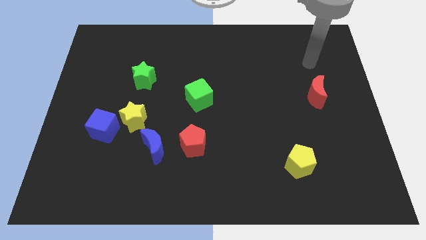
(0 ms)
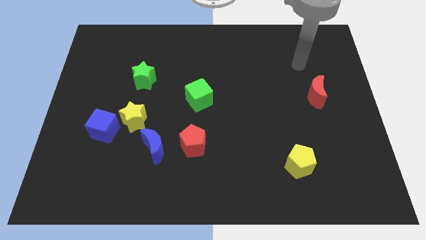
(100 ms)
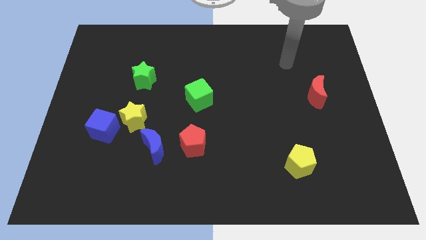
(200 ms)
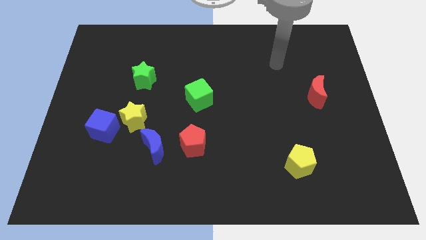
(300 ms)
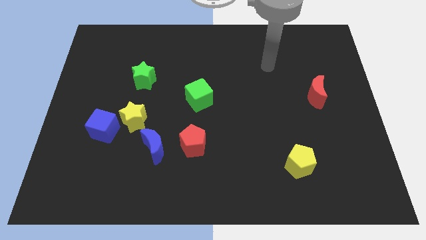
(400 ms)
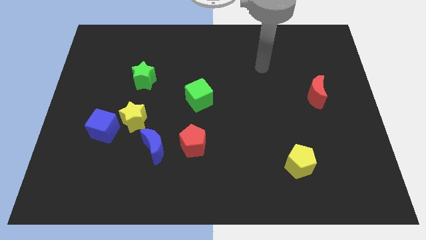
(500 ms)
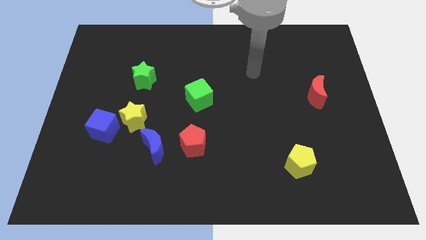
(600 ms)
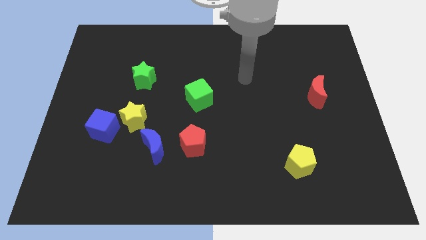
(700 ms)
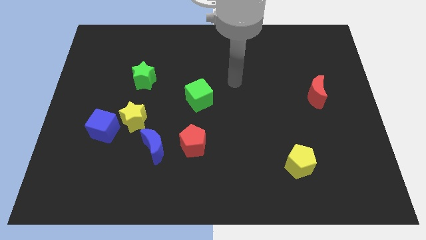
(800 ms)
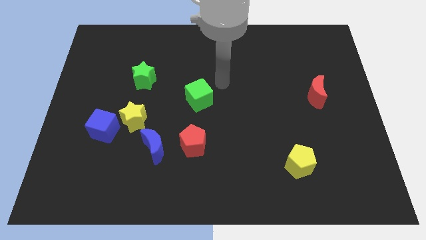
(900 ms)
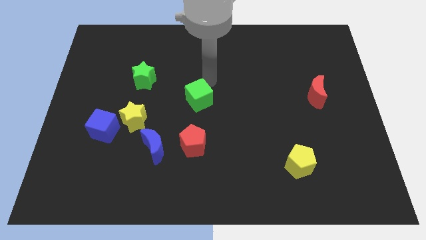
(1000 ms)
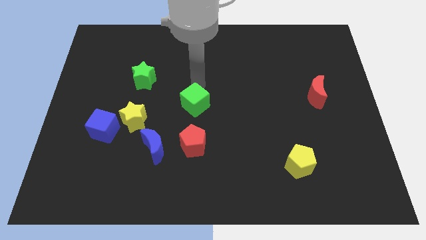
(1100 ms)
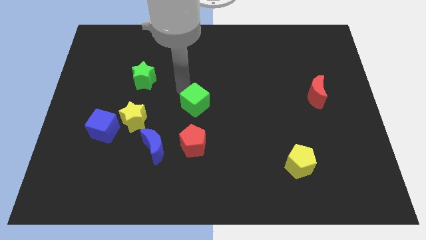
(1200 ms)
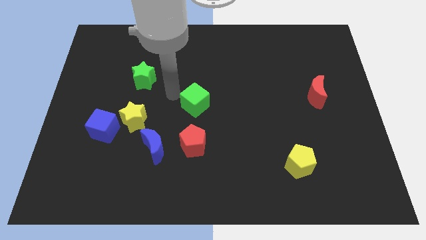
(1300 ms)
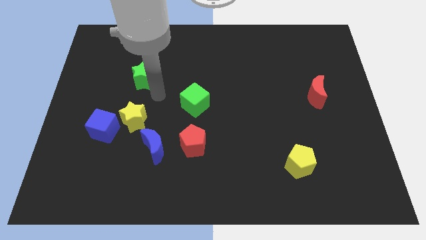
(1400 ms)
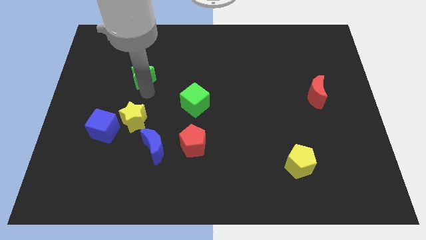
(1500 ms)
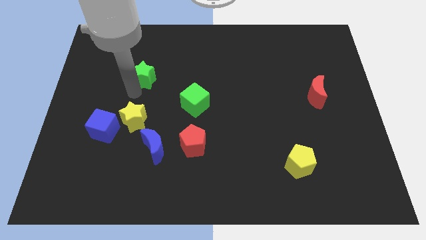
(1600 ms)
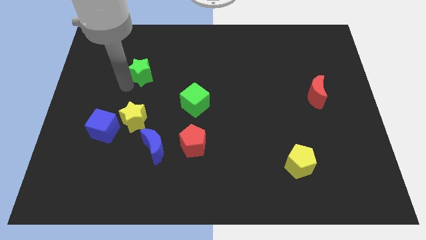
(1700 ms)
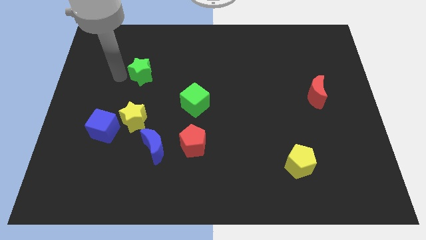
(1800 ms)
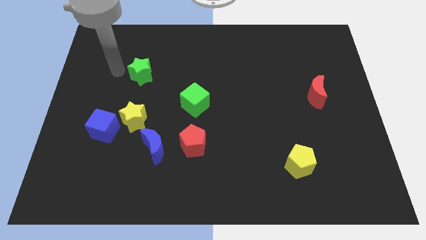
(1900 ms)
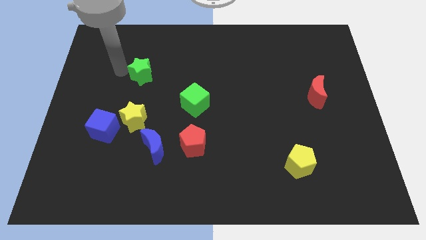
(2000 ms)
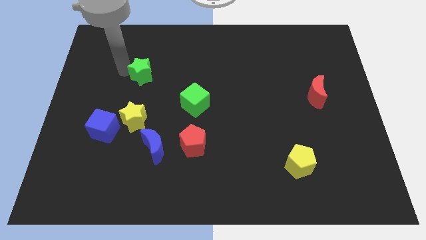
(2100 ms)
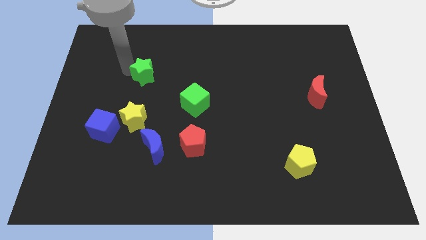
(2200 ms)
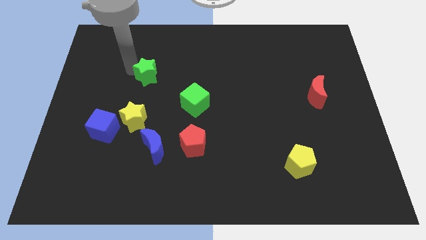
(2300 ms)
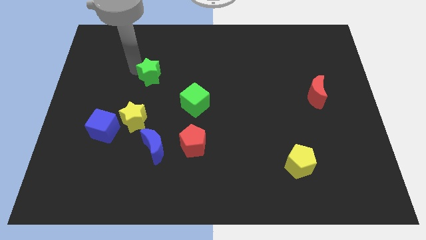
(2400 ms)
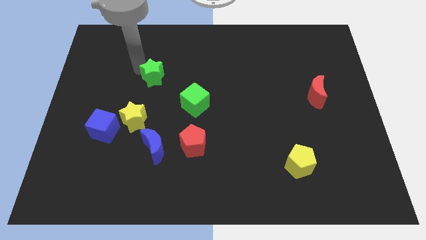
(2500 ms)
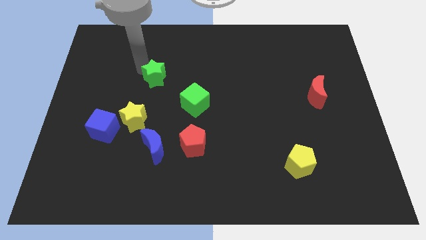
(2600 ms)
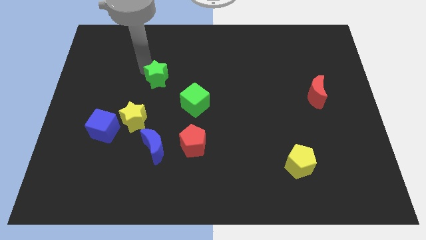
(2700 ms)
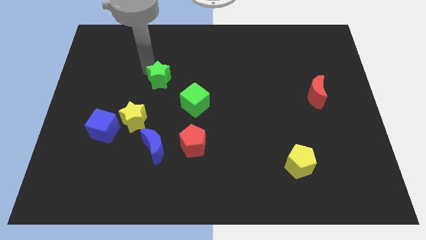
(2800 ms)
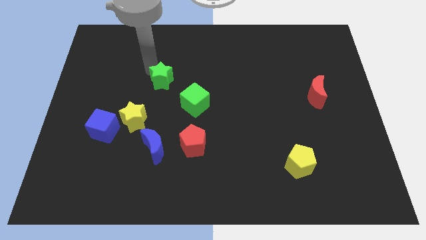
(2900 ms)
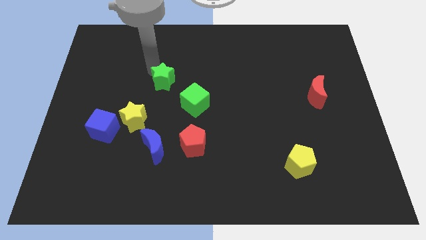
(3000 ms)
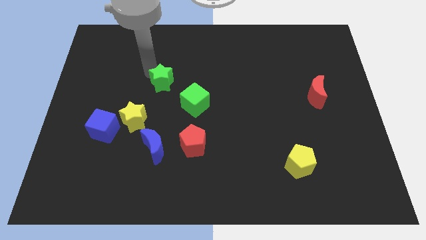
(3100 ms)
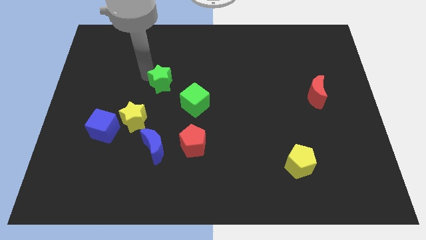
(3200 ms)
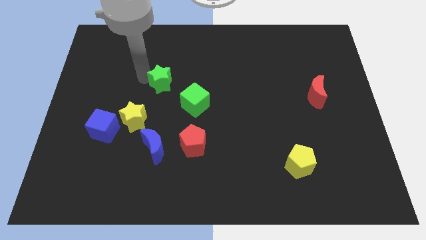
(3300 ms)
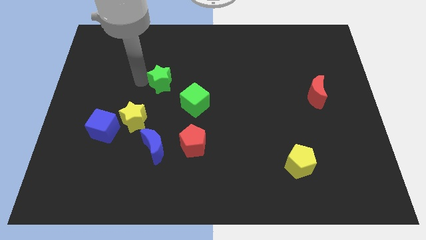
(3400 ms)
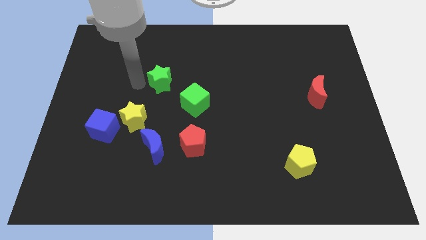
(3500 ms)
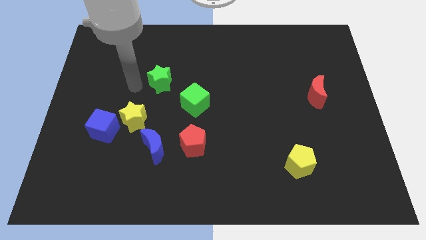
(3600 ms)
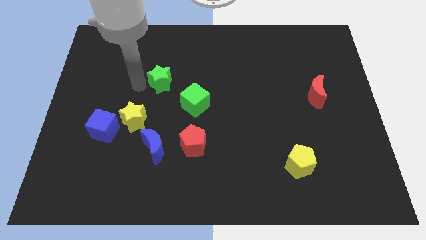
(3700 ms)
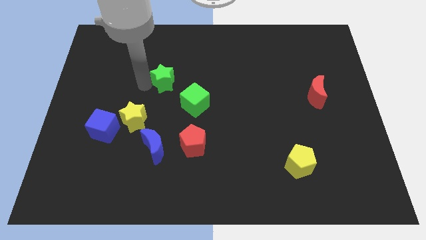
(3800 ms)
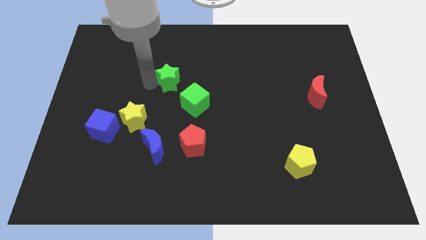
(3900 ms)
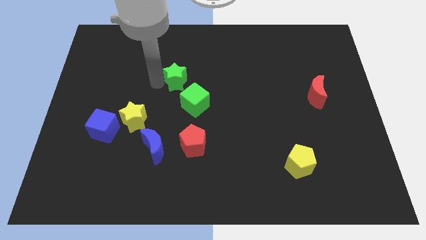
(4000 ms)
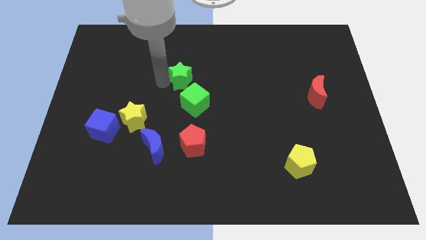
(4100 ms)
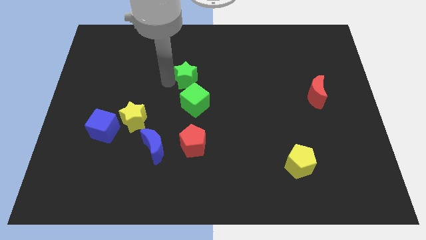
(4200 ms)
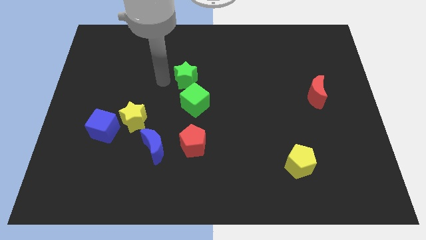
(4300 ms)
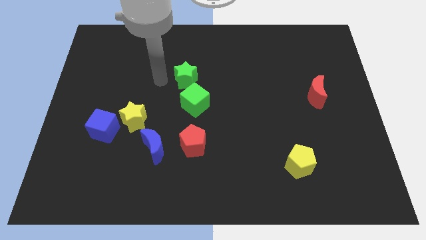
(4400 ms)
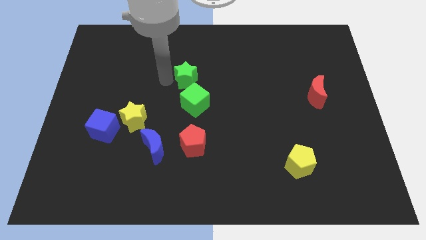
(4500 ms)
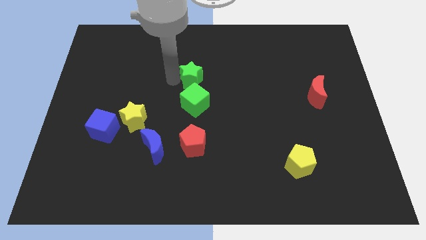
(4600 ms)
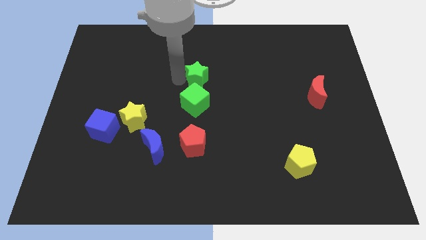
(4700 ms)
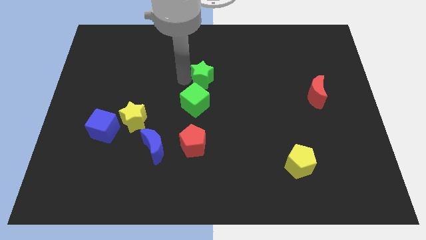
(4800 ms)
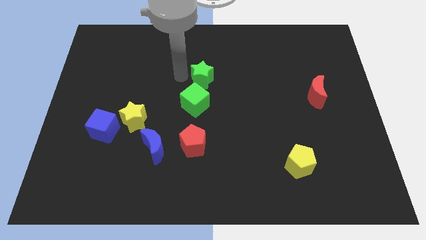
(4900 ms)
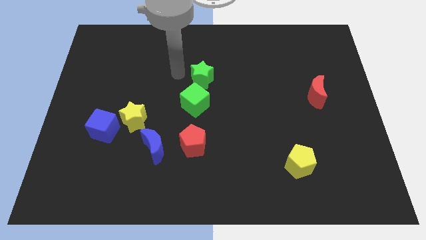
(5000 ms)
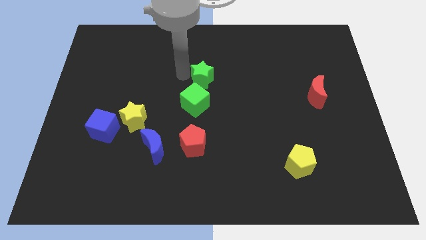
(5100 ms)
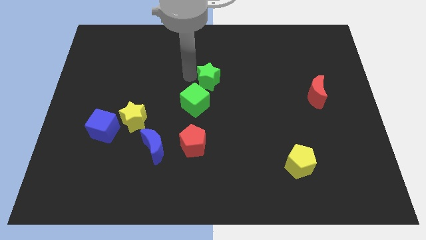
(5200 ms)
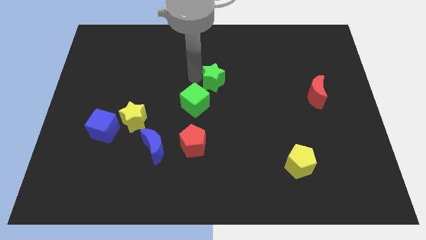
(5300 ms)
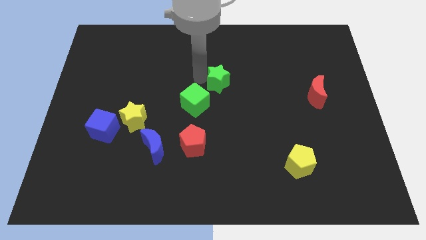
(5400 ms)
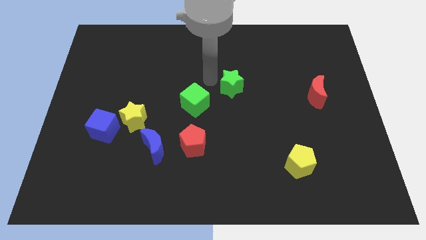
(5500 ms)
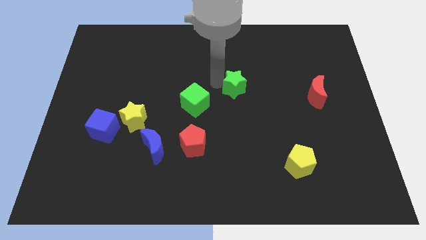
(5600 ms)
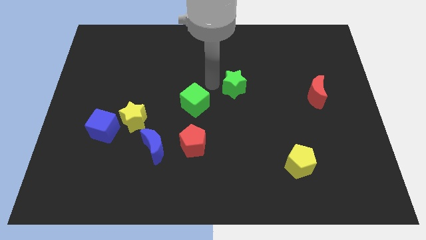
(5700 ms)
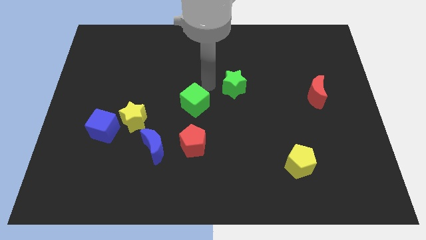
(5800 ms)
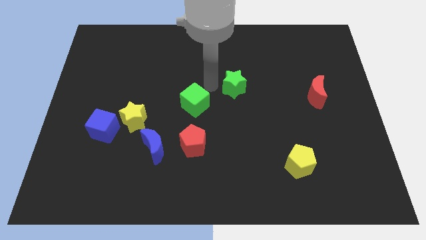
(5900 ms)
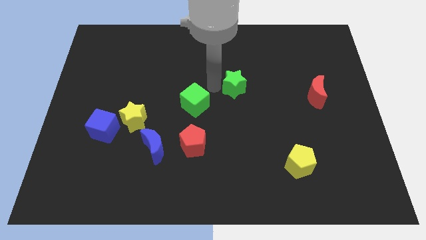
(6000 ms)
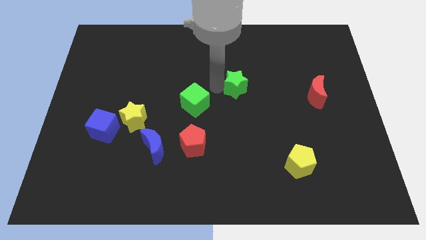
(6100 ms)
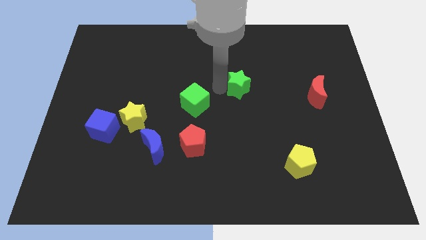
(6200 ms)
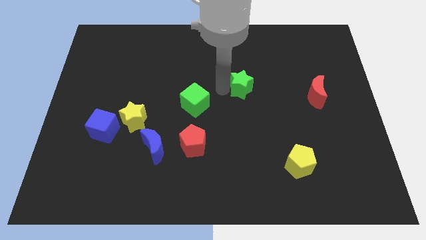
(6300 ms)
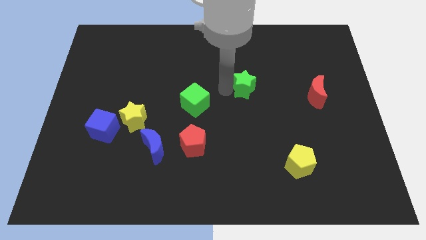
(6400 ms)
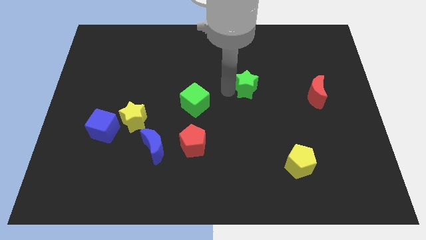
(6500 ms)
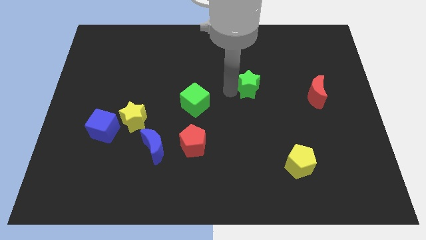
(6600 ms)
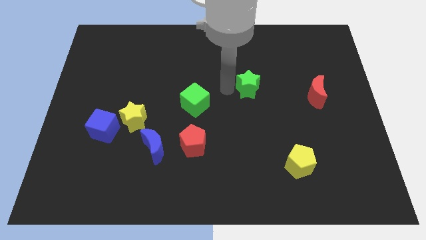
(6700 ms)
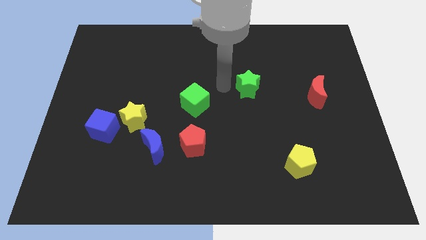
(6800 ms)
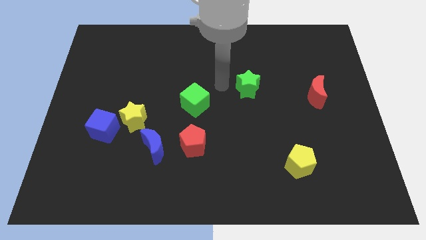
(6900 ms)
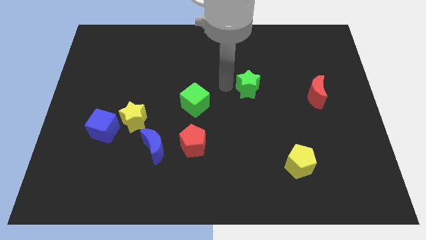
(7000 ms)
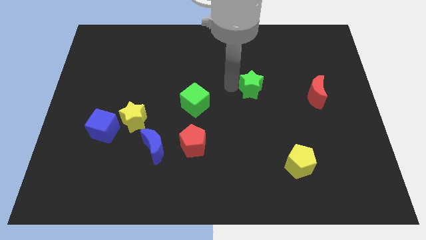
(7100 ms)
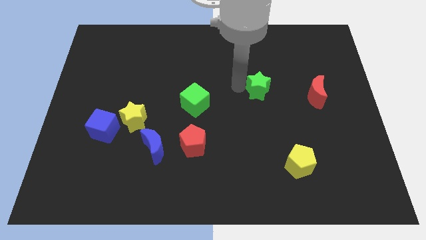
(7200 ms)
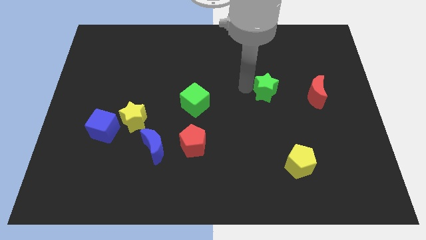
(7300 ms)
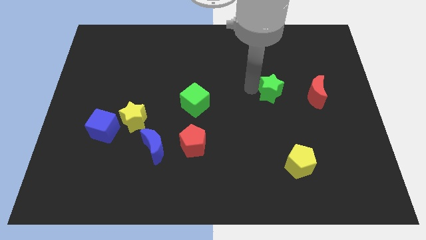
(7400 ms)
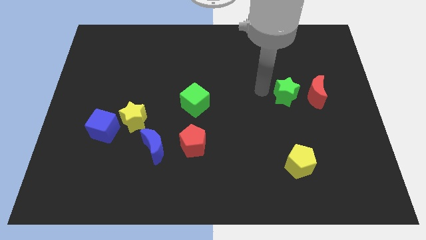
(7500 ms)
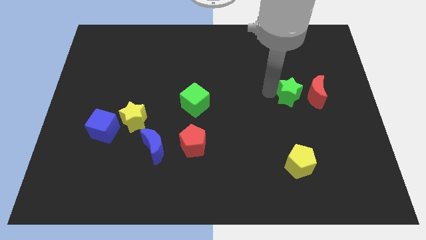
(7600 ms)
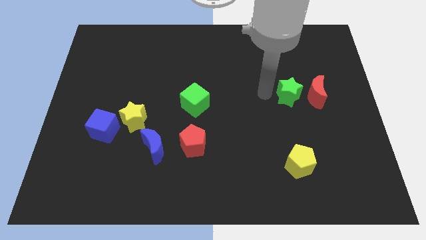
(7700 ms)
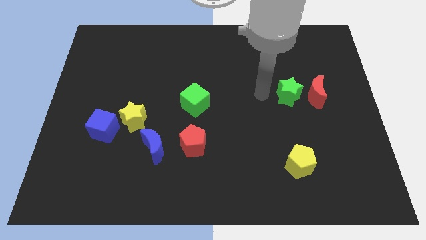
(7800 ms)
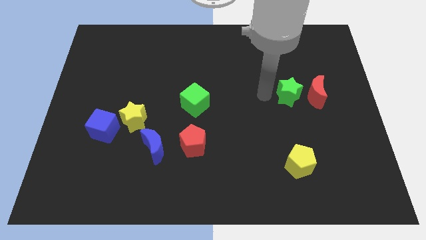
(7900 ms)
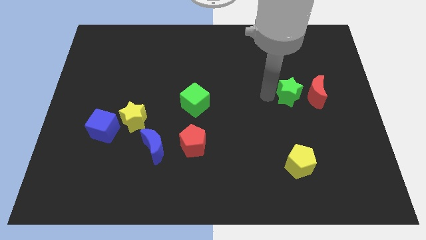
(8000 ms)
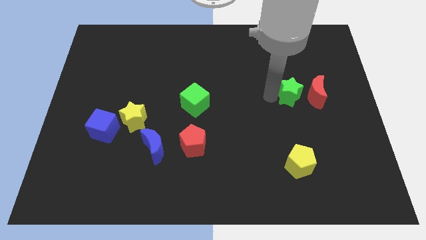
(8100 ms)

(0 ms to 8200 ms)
slide the green star towards the red moon
